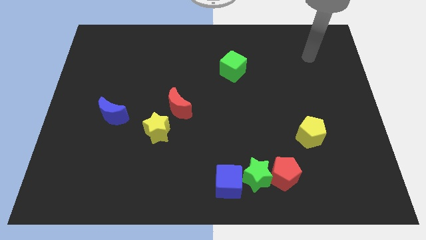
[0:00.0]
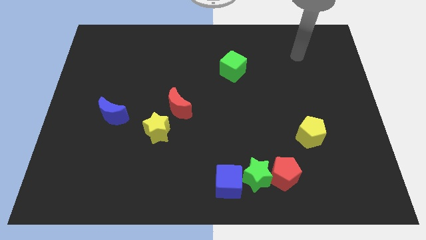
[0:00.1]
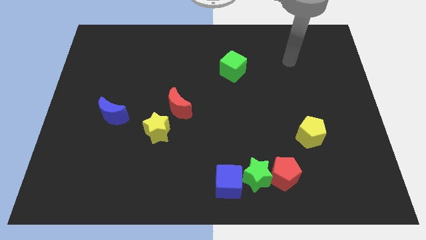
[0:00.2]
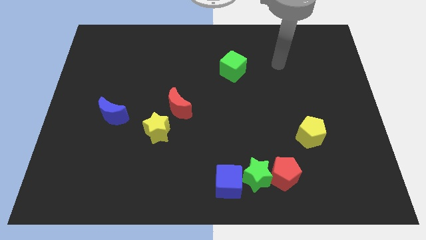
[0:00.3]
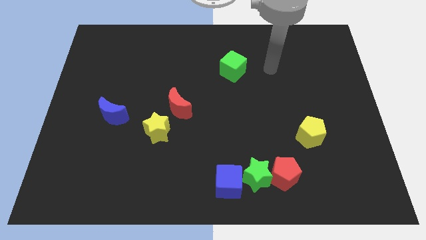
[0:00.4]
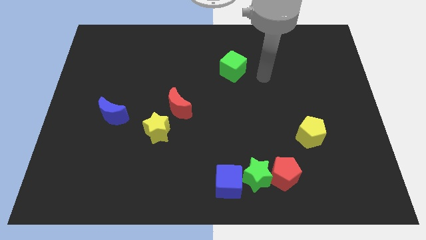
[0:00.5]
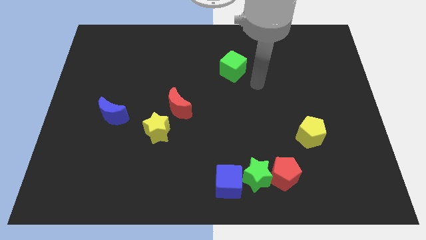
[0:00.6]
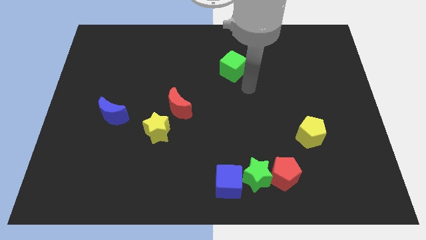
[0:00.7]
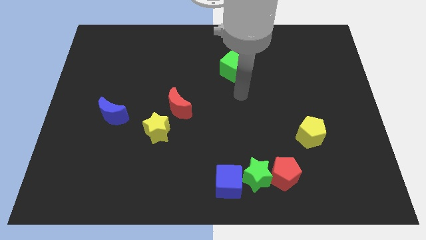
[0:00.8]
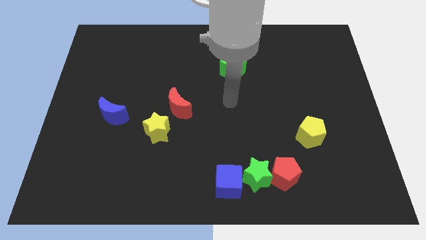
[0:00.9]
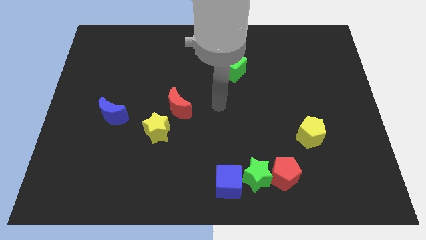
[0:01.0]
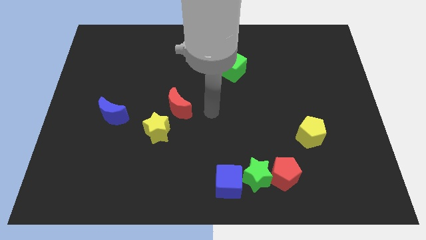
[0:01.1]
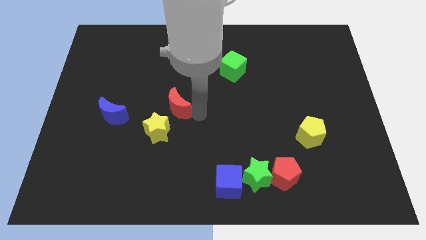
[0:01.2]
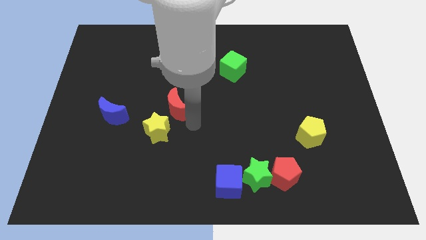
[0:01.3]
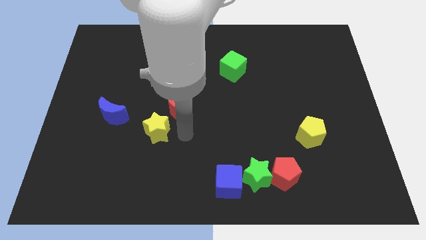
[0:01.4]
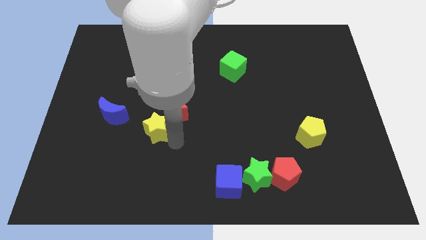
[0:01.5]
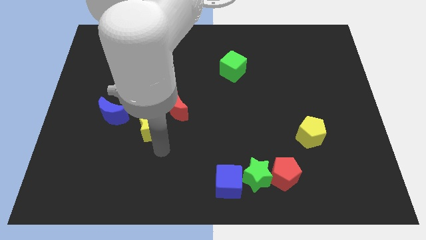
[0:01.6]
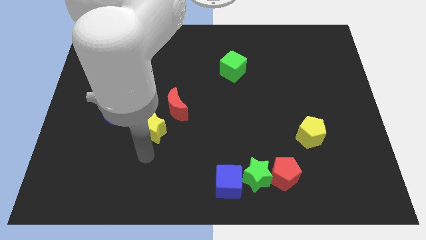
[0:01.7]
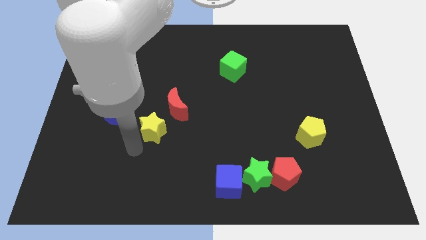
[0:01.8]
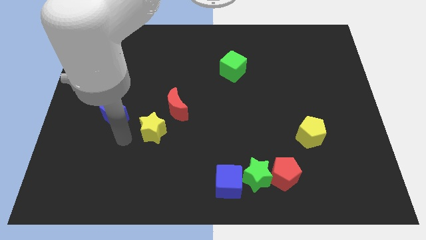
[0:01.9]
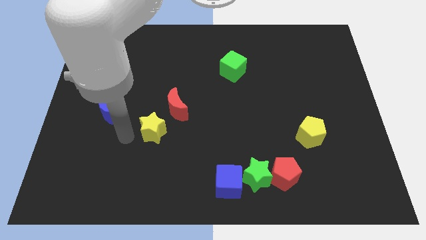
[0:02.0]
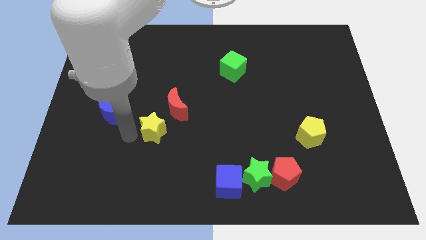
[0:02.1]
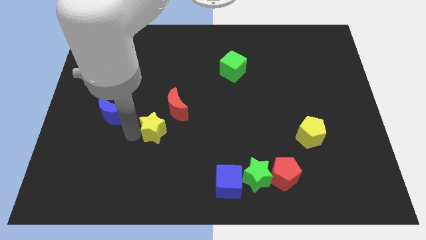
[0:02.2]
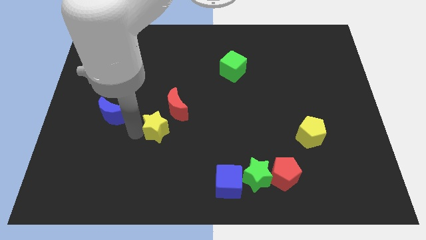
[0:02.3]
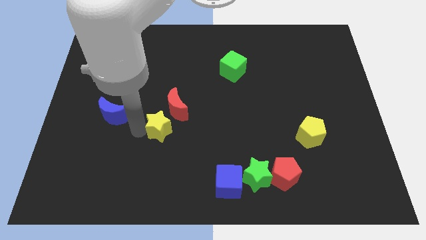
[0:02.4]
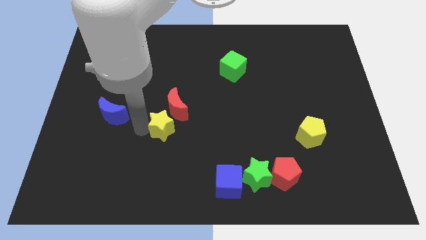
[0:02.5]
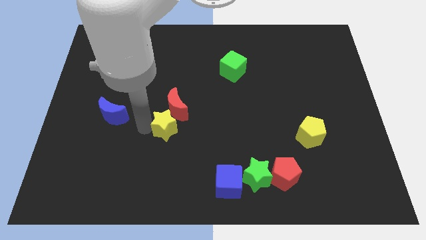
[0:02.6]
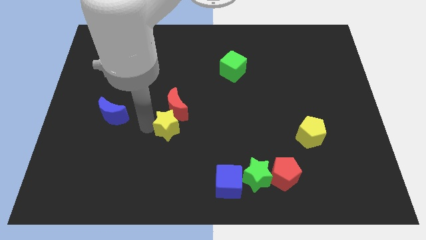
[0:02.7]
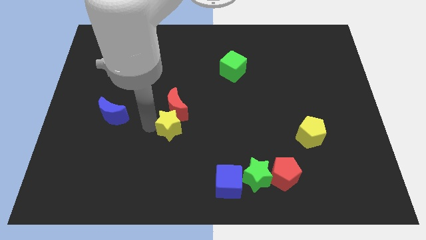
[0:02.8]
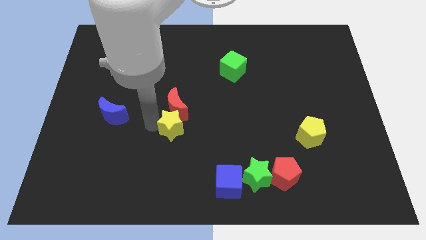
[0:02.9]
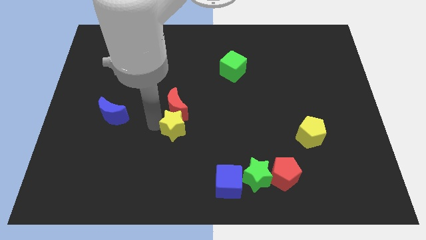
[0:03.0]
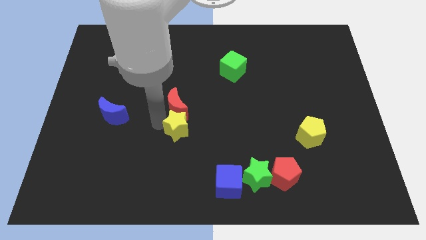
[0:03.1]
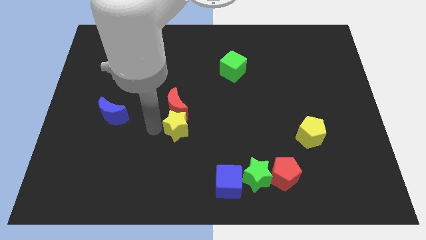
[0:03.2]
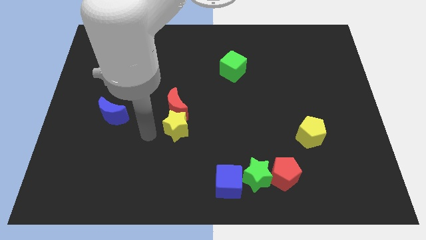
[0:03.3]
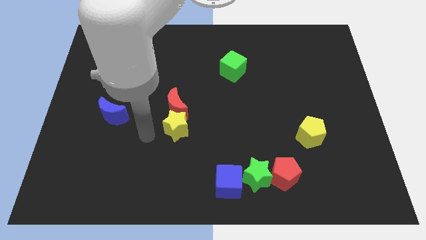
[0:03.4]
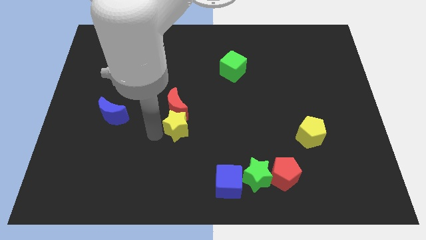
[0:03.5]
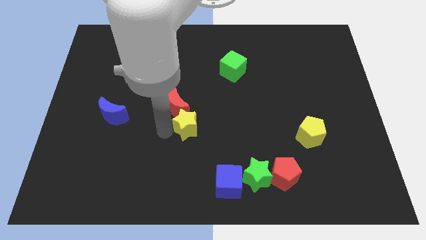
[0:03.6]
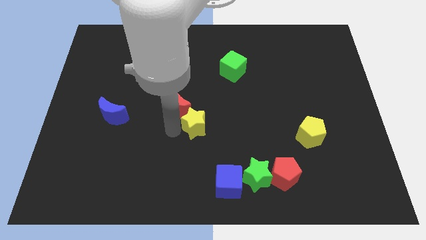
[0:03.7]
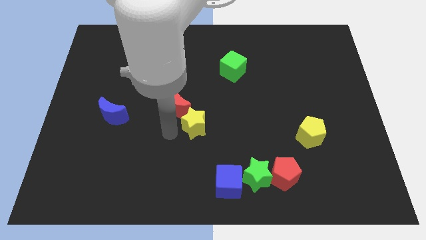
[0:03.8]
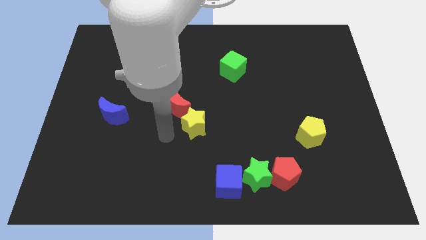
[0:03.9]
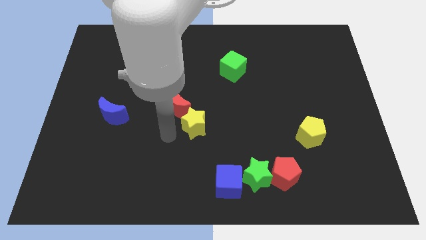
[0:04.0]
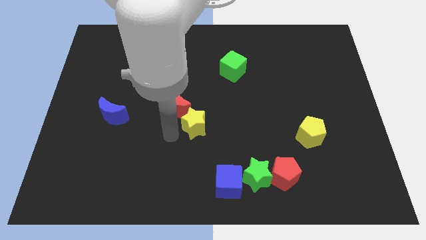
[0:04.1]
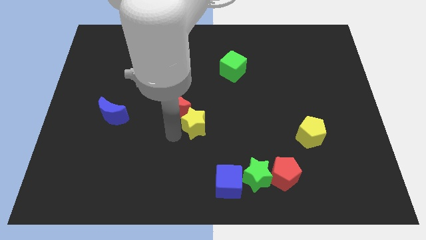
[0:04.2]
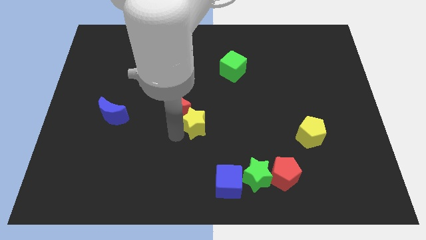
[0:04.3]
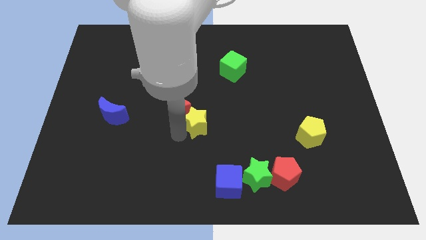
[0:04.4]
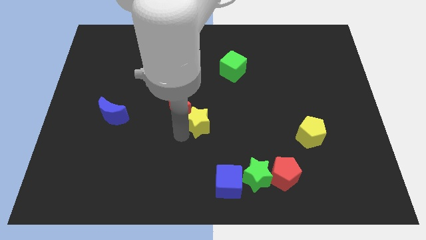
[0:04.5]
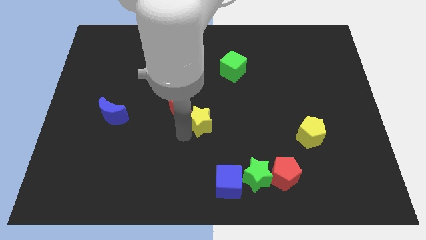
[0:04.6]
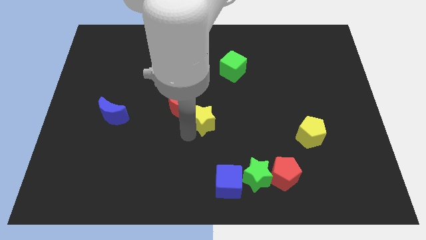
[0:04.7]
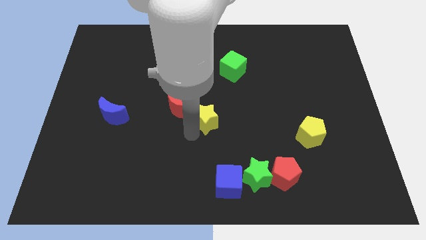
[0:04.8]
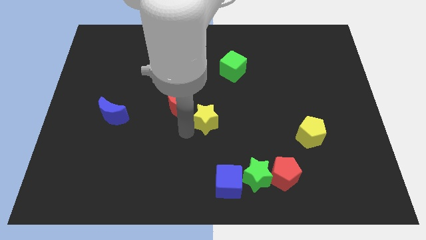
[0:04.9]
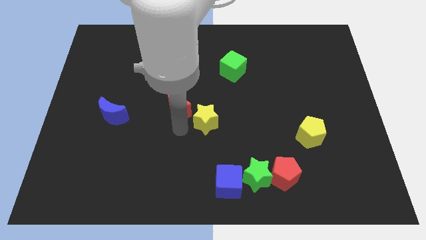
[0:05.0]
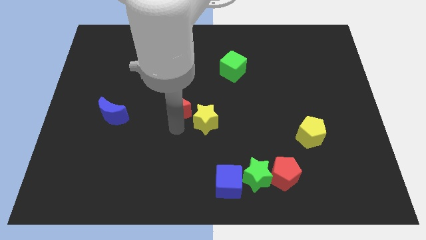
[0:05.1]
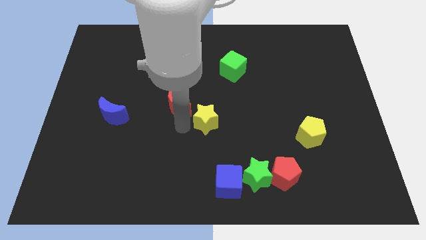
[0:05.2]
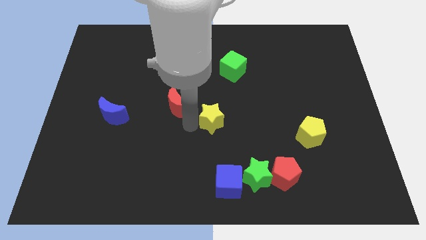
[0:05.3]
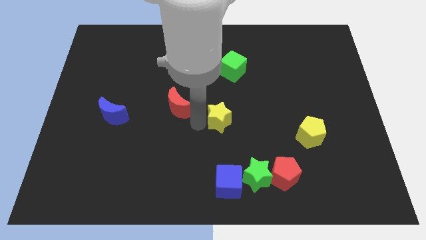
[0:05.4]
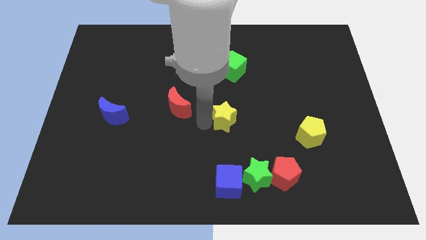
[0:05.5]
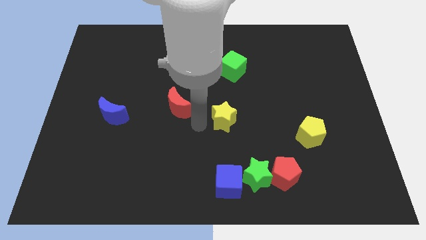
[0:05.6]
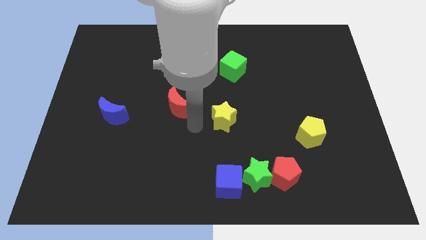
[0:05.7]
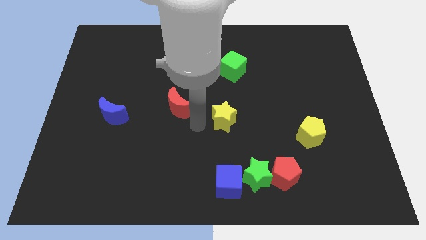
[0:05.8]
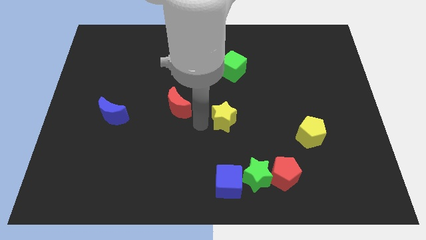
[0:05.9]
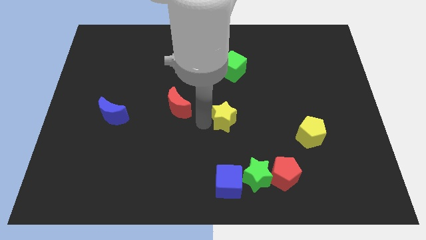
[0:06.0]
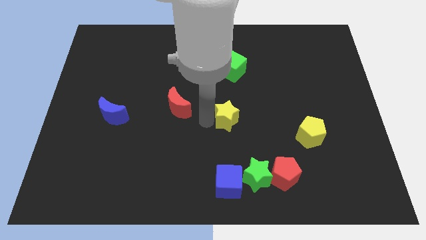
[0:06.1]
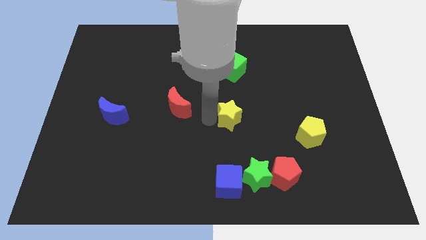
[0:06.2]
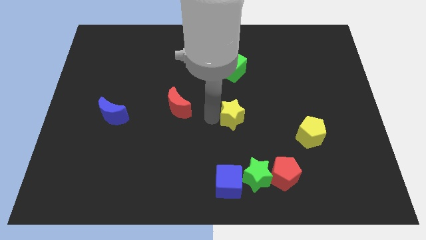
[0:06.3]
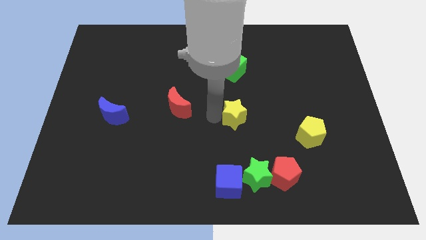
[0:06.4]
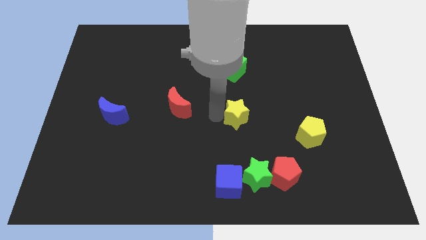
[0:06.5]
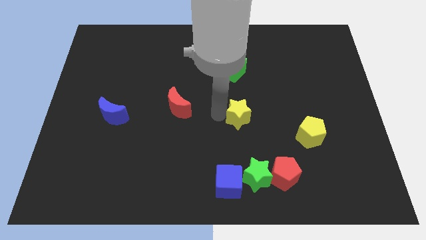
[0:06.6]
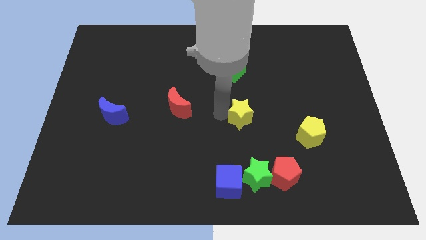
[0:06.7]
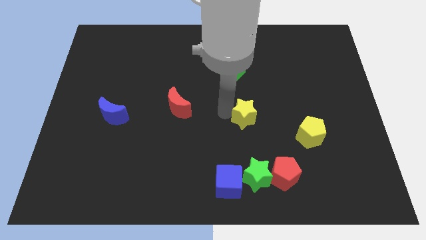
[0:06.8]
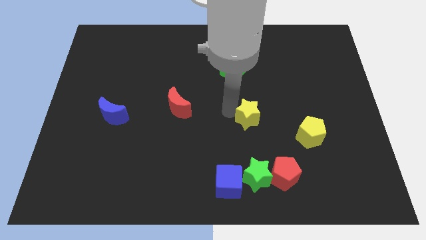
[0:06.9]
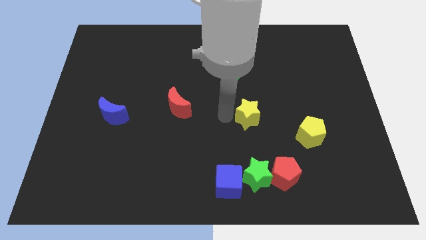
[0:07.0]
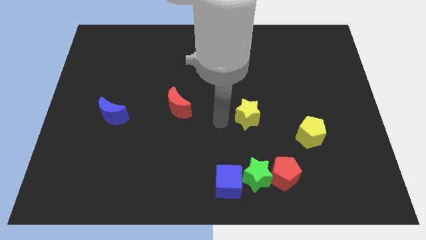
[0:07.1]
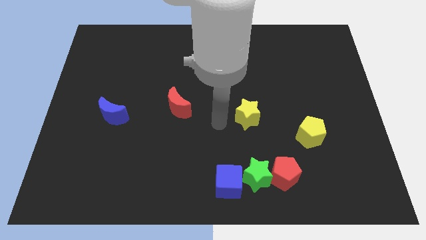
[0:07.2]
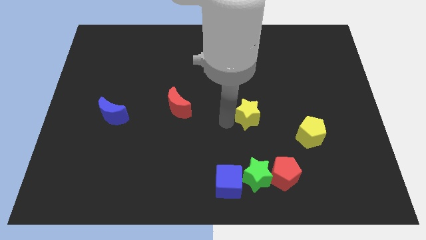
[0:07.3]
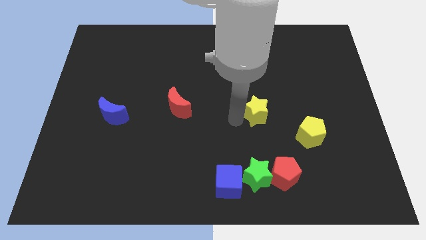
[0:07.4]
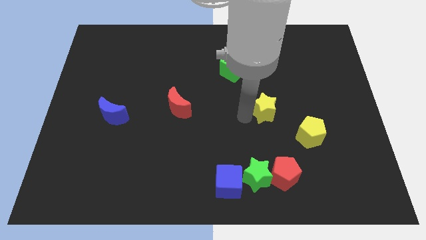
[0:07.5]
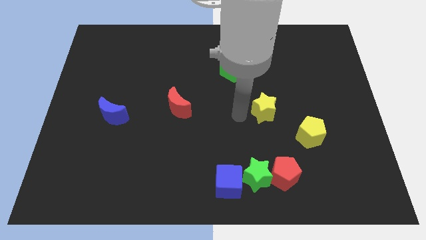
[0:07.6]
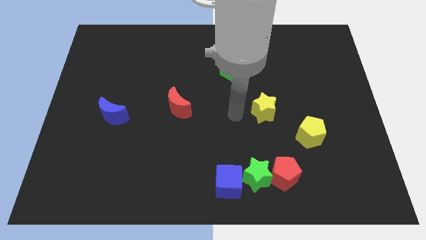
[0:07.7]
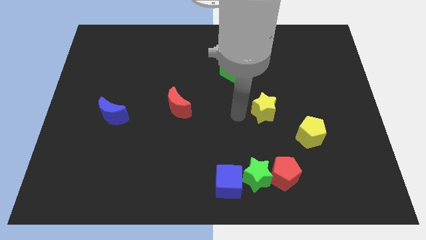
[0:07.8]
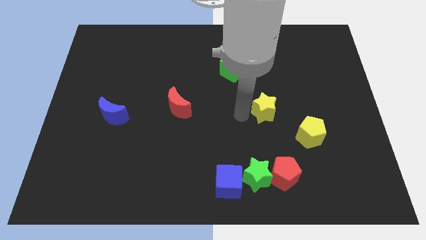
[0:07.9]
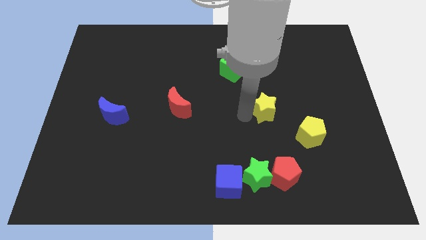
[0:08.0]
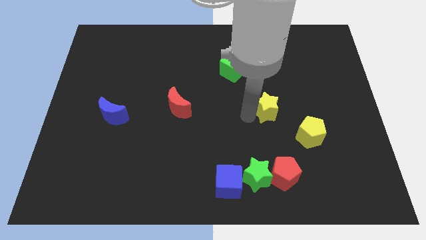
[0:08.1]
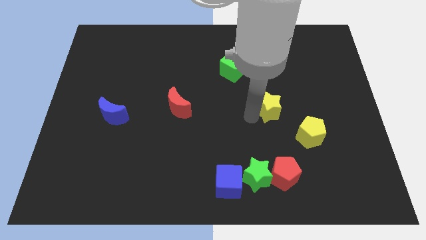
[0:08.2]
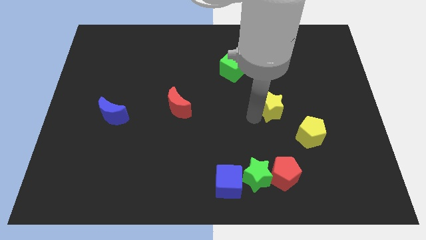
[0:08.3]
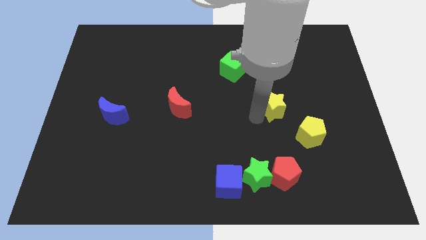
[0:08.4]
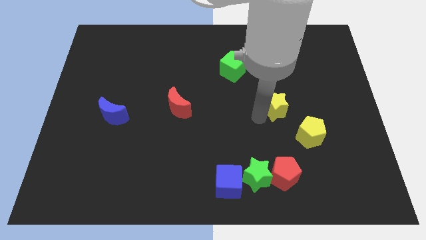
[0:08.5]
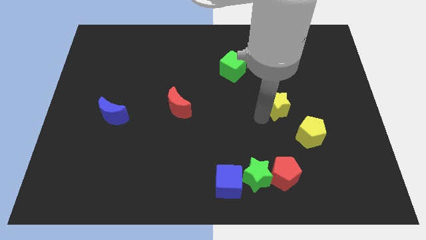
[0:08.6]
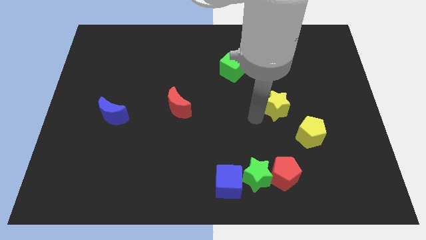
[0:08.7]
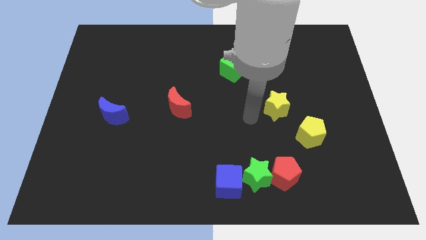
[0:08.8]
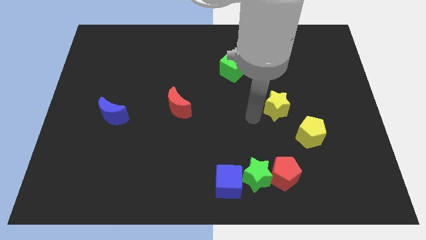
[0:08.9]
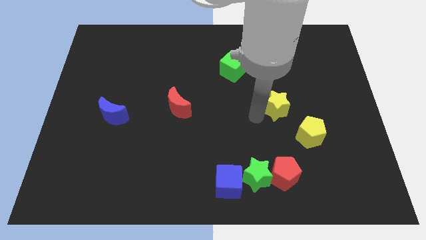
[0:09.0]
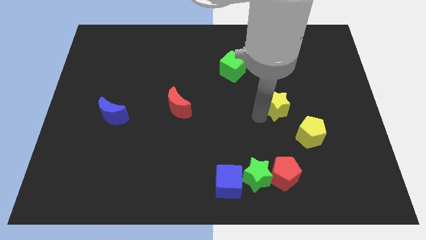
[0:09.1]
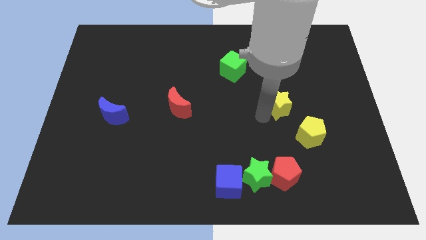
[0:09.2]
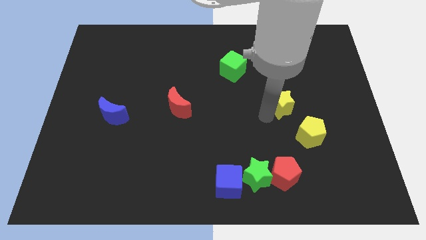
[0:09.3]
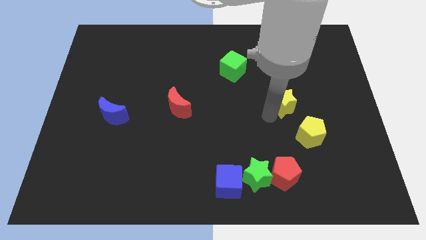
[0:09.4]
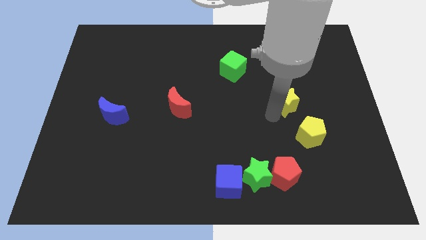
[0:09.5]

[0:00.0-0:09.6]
move the yellow star to the top side of the yellow pentagon
